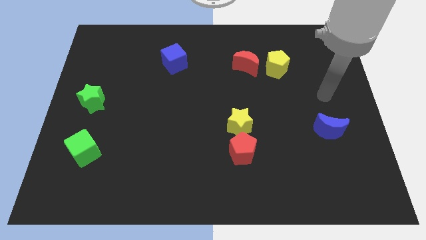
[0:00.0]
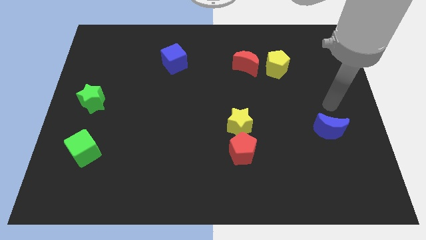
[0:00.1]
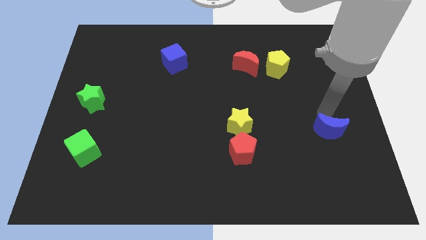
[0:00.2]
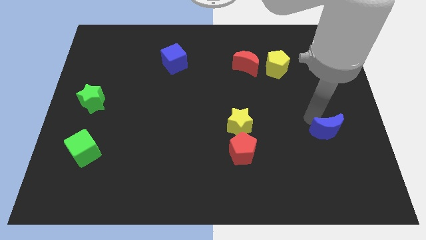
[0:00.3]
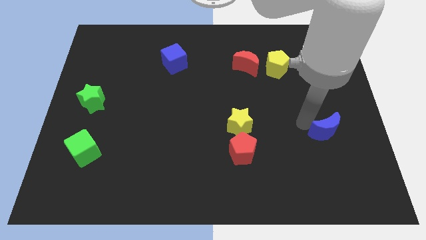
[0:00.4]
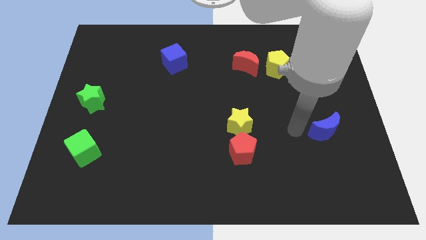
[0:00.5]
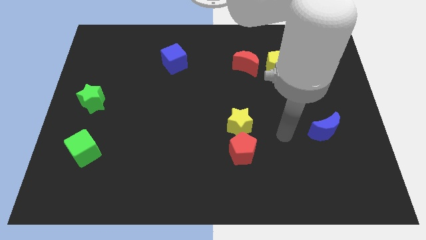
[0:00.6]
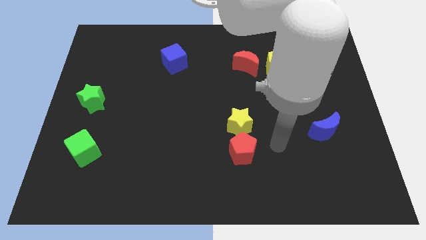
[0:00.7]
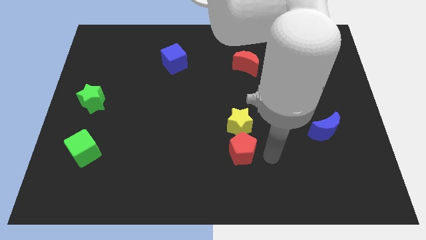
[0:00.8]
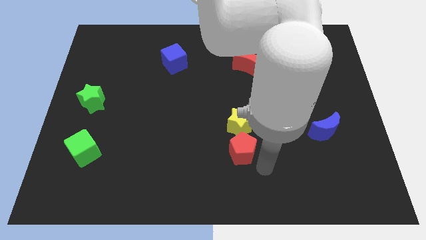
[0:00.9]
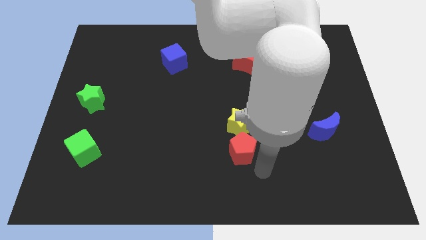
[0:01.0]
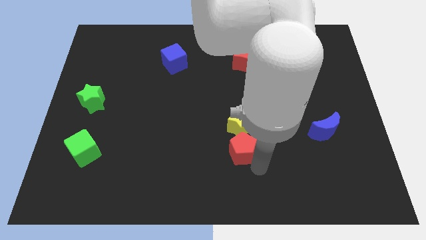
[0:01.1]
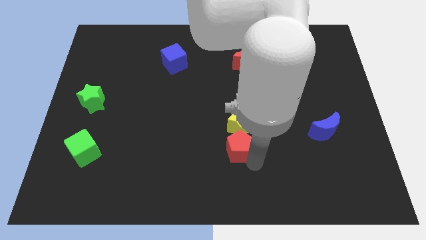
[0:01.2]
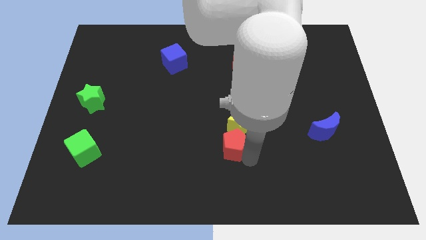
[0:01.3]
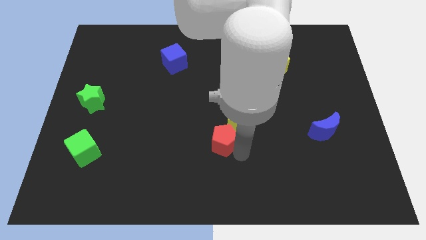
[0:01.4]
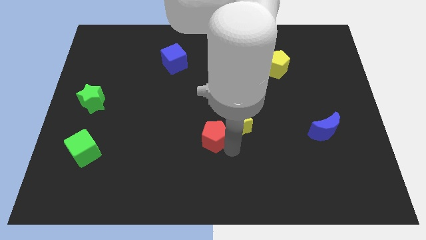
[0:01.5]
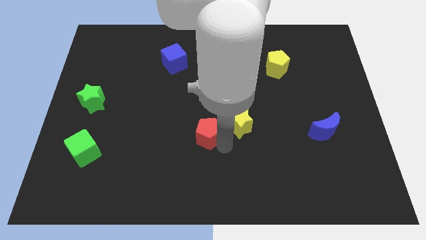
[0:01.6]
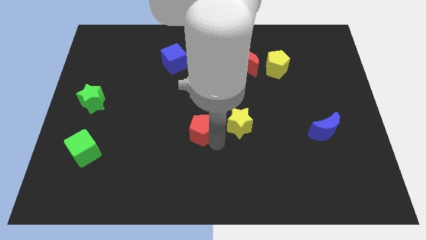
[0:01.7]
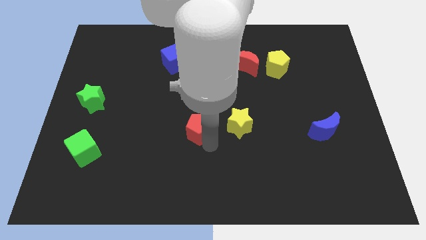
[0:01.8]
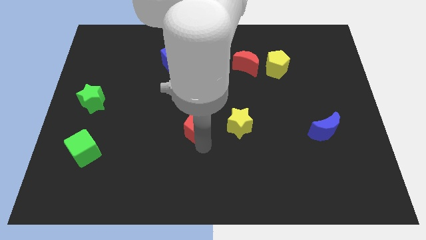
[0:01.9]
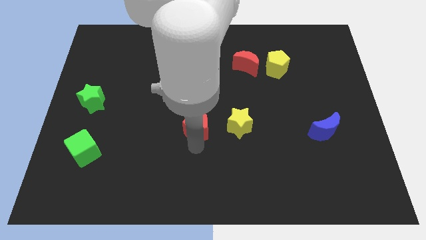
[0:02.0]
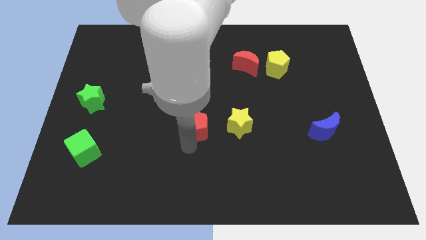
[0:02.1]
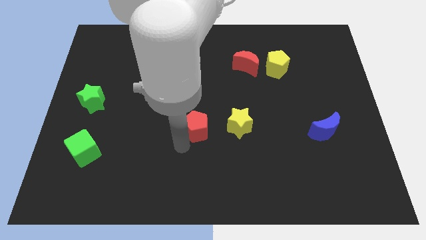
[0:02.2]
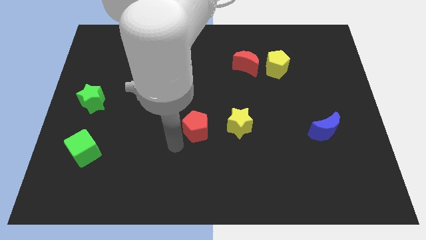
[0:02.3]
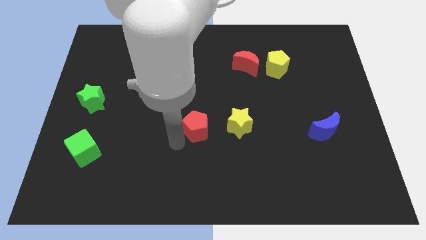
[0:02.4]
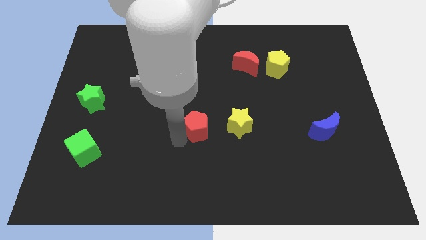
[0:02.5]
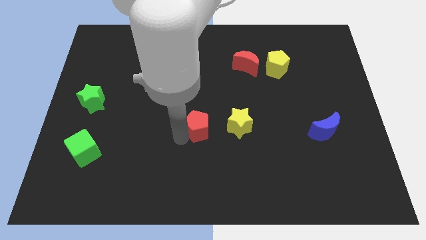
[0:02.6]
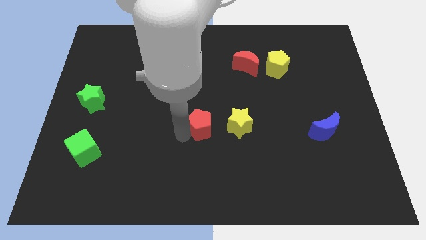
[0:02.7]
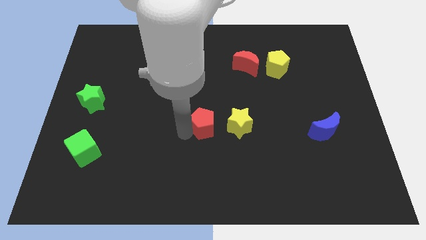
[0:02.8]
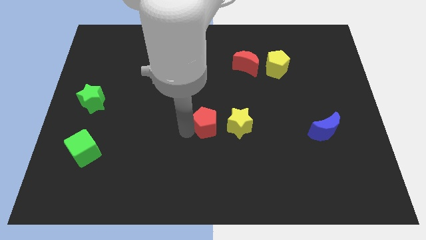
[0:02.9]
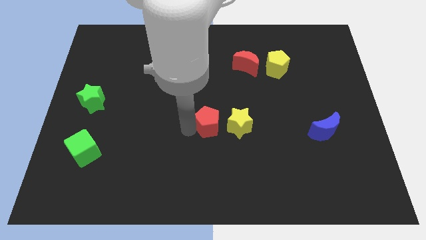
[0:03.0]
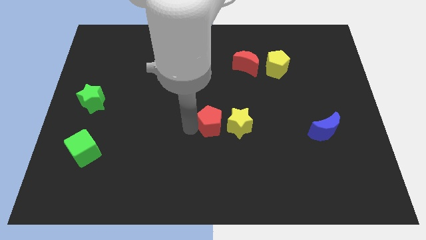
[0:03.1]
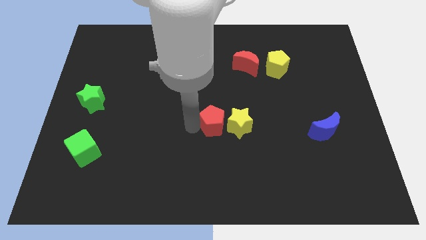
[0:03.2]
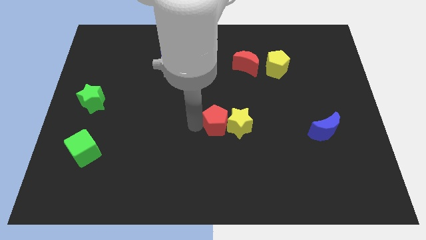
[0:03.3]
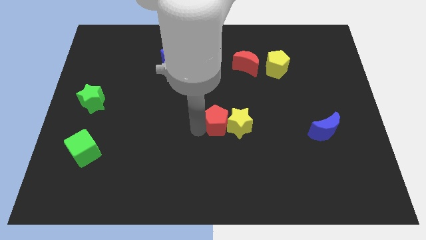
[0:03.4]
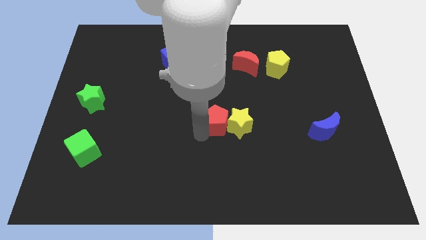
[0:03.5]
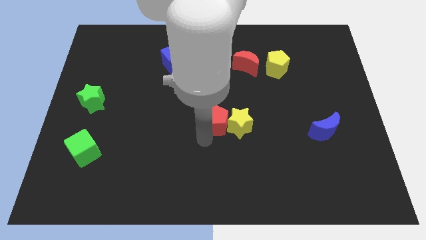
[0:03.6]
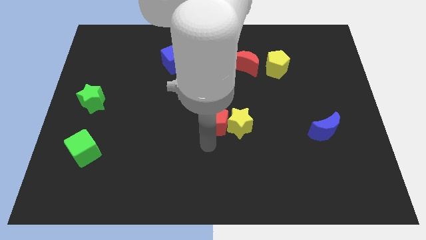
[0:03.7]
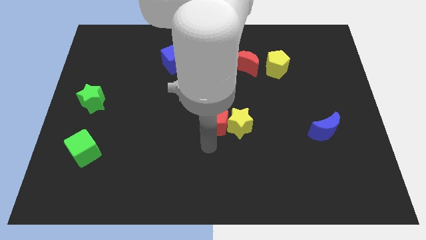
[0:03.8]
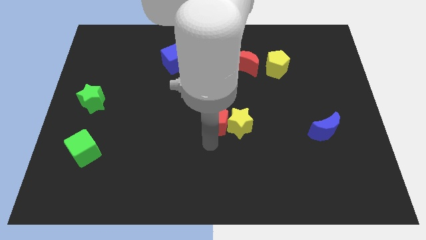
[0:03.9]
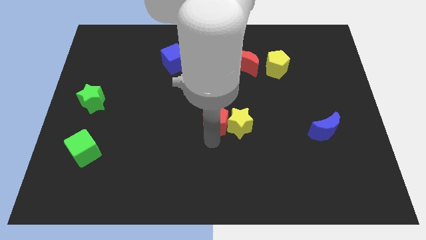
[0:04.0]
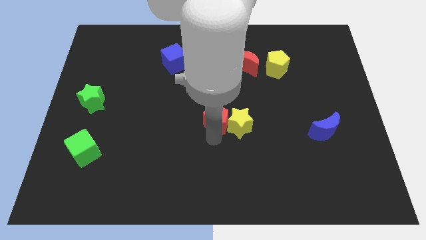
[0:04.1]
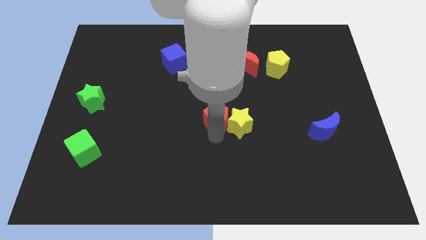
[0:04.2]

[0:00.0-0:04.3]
slightly move the red pentagon upwards

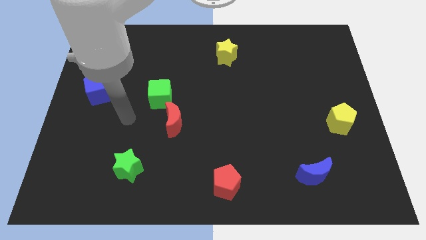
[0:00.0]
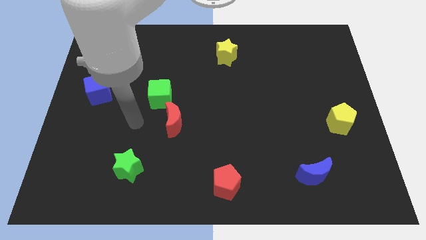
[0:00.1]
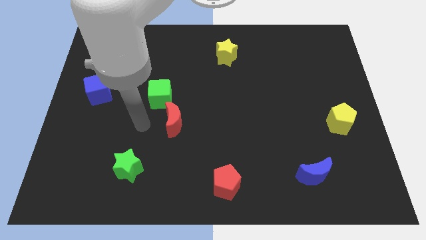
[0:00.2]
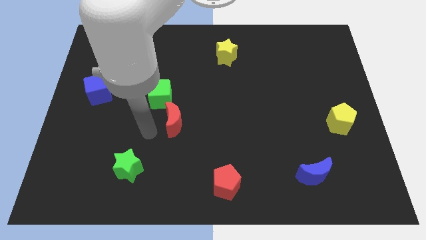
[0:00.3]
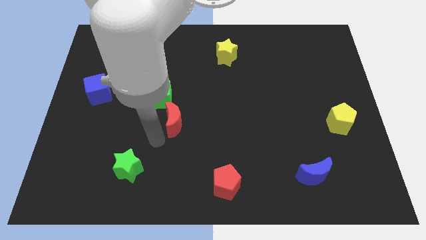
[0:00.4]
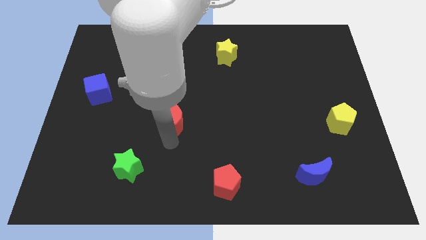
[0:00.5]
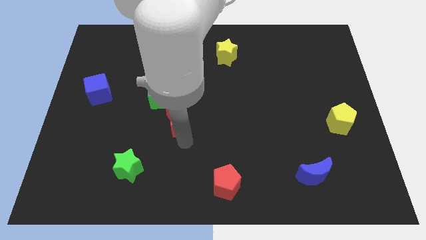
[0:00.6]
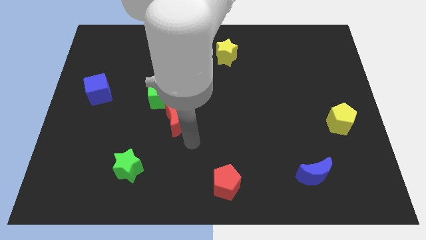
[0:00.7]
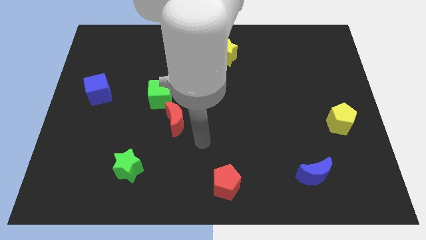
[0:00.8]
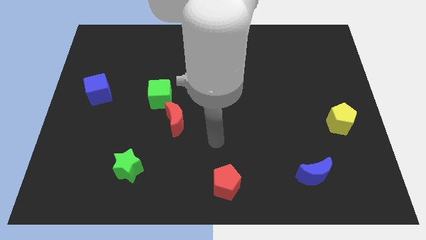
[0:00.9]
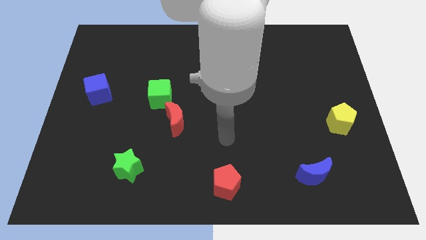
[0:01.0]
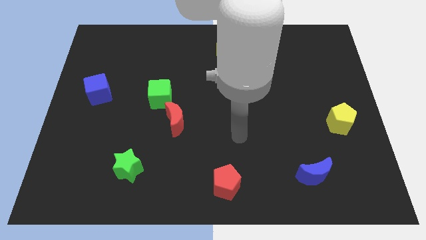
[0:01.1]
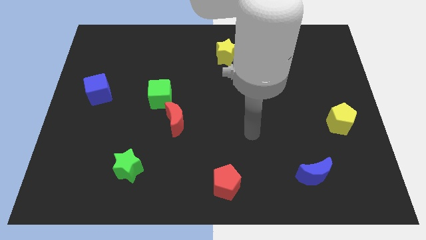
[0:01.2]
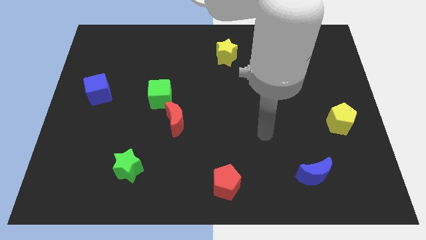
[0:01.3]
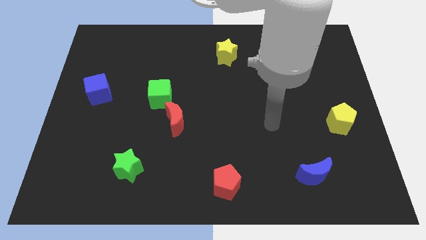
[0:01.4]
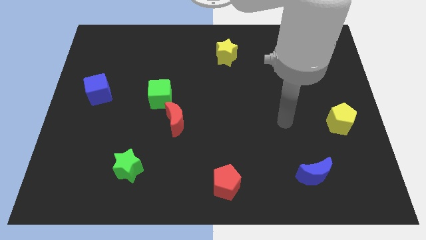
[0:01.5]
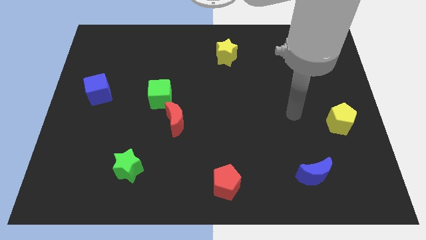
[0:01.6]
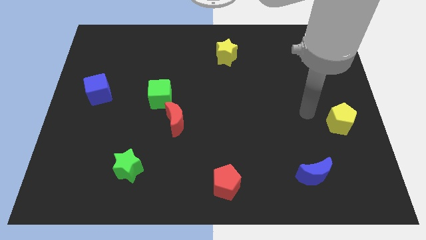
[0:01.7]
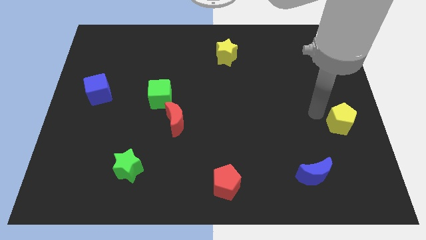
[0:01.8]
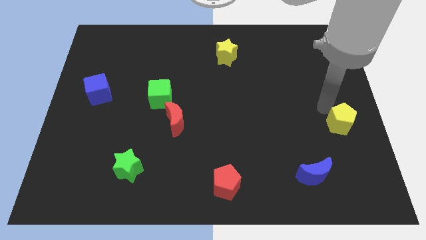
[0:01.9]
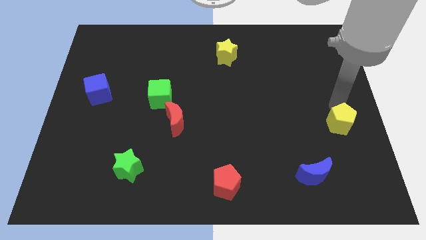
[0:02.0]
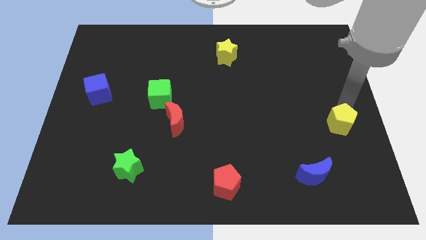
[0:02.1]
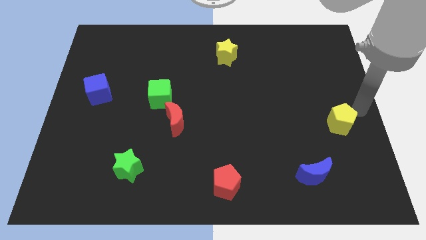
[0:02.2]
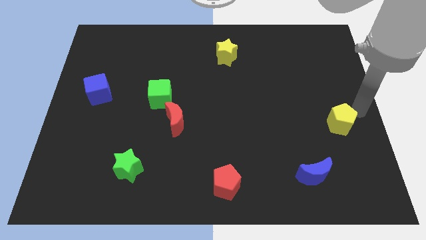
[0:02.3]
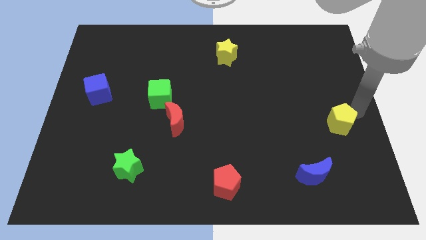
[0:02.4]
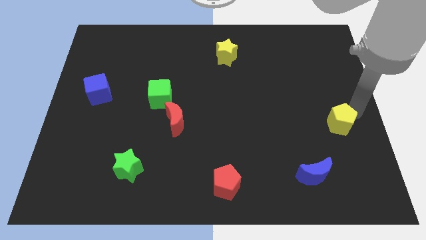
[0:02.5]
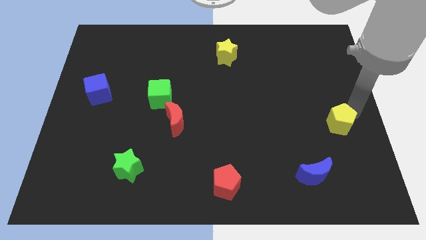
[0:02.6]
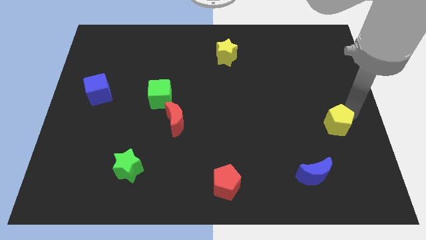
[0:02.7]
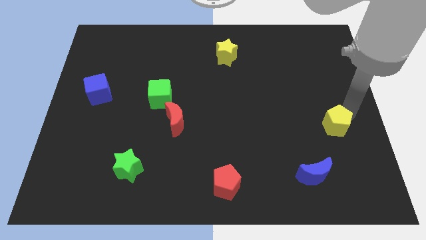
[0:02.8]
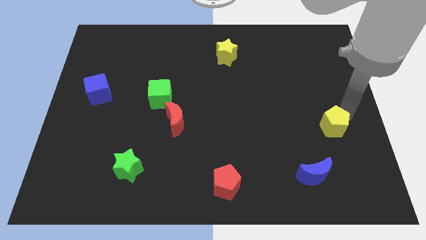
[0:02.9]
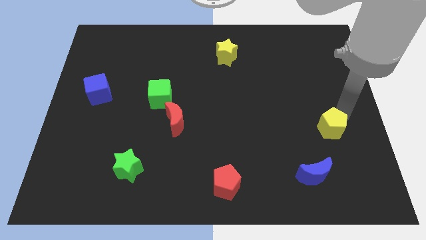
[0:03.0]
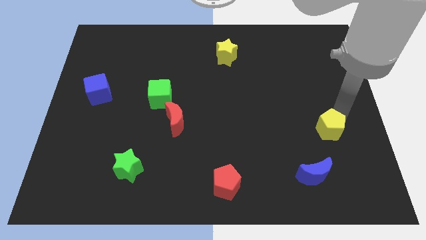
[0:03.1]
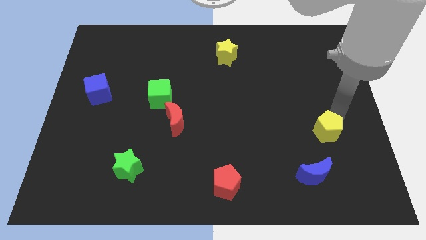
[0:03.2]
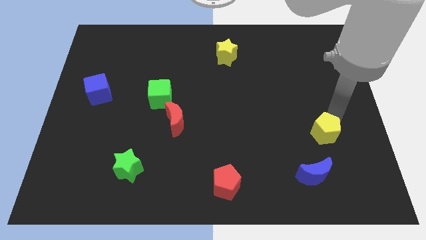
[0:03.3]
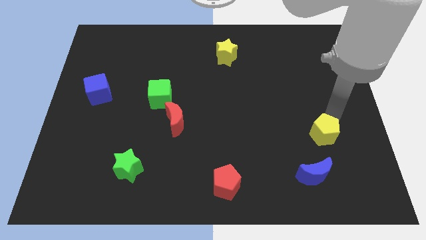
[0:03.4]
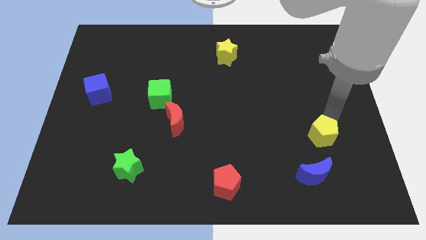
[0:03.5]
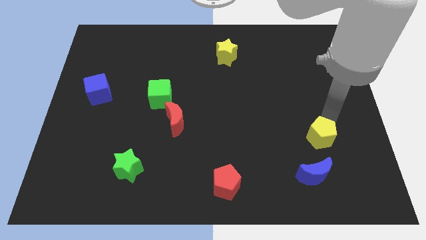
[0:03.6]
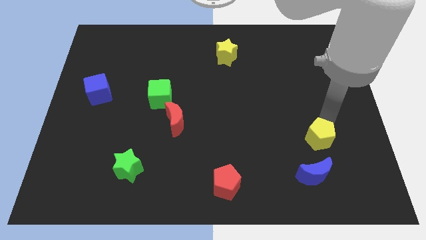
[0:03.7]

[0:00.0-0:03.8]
slide the yellow pentagon slightly downwards and to the left diagonally
